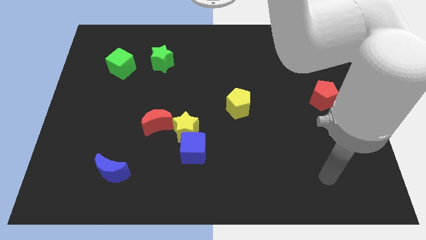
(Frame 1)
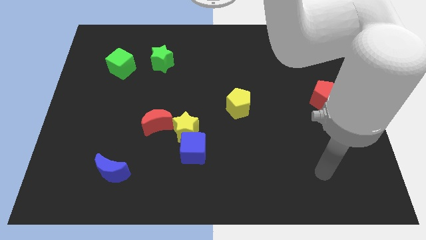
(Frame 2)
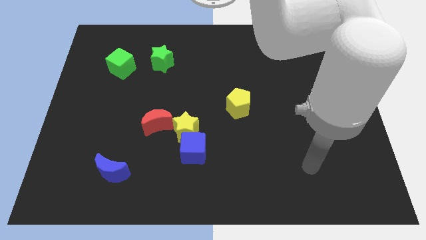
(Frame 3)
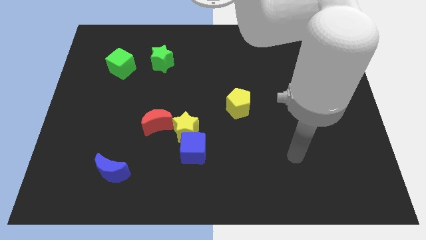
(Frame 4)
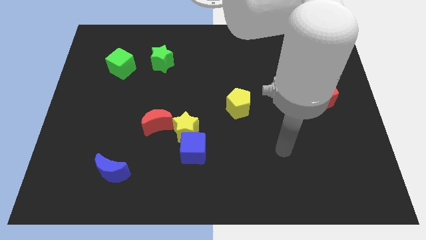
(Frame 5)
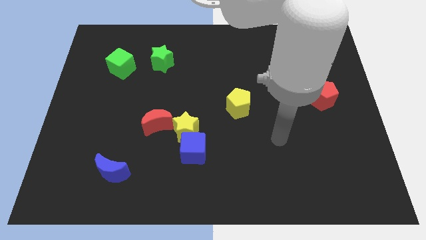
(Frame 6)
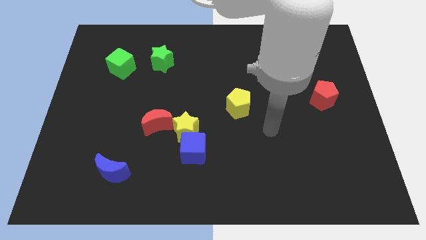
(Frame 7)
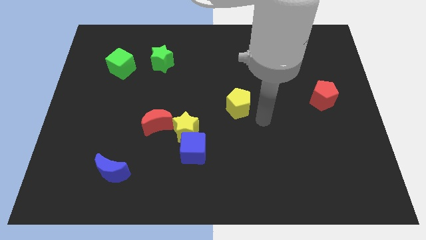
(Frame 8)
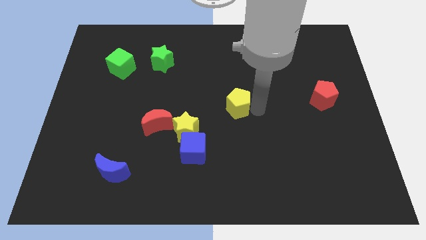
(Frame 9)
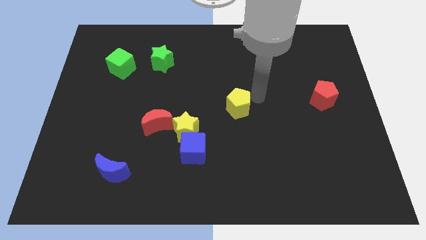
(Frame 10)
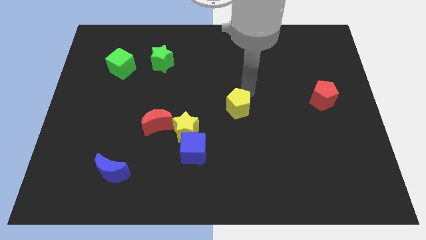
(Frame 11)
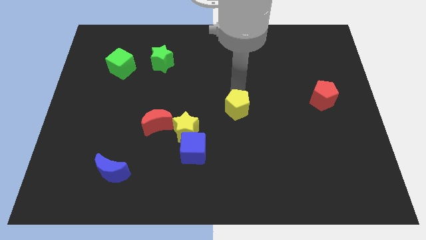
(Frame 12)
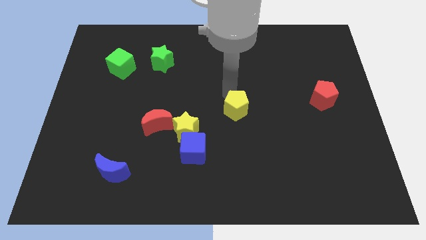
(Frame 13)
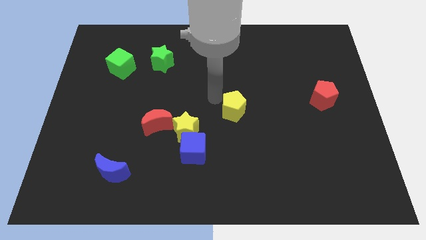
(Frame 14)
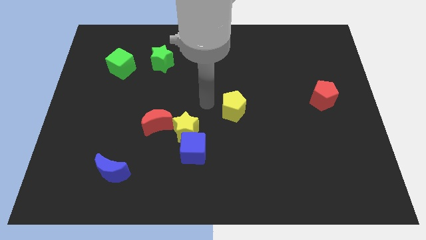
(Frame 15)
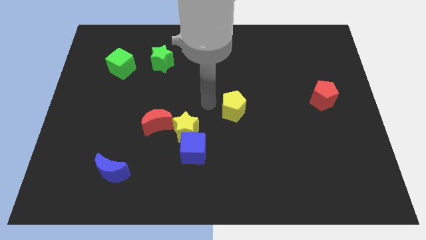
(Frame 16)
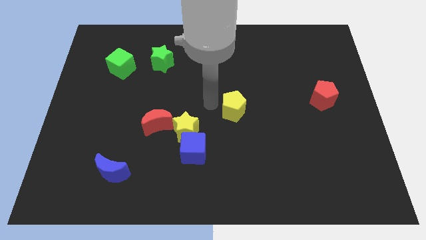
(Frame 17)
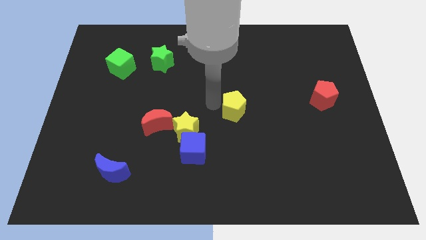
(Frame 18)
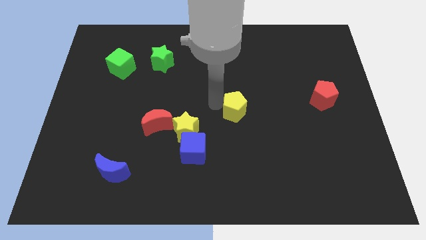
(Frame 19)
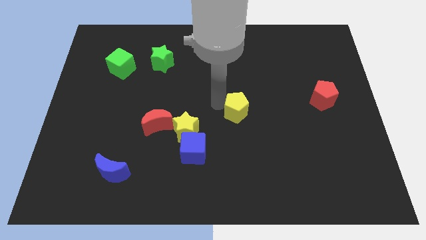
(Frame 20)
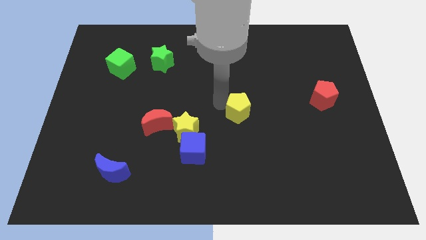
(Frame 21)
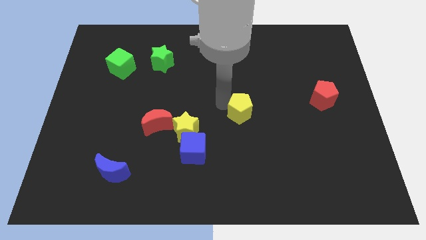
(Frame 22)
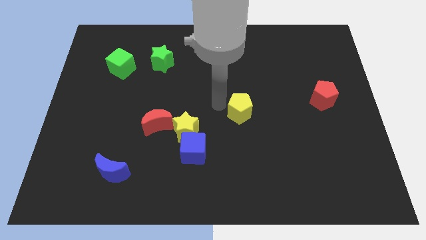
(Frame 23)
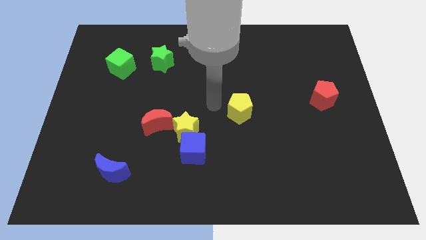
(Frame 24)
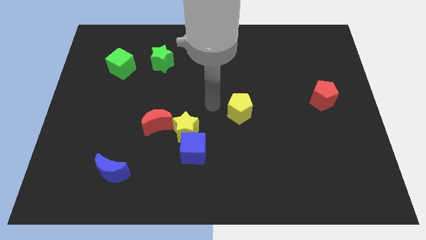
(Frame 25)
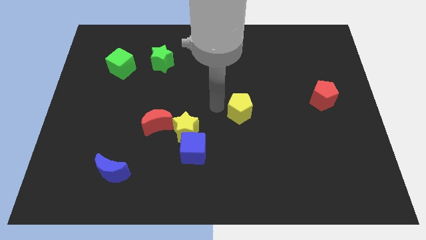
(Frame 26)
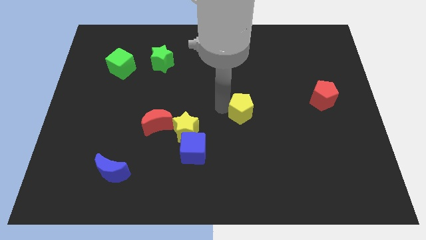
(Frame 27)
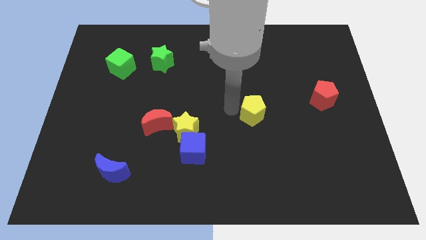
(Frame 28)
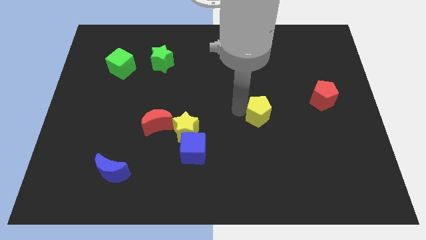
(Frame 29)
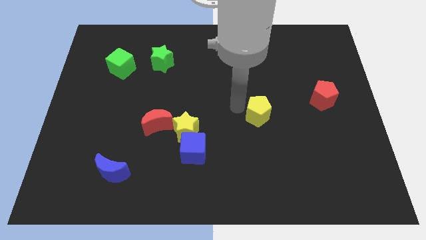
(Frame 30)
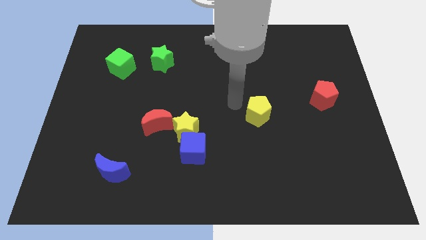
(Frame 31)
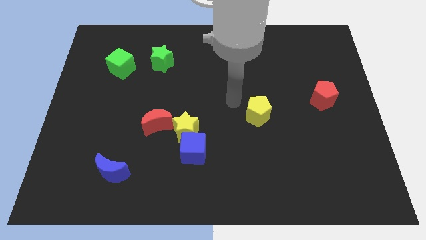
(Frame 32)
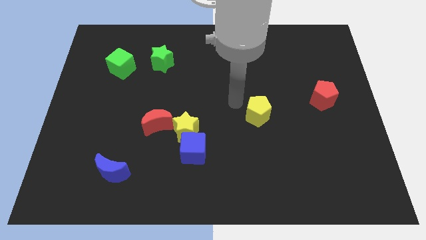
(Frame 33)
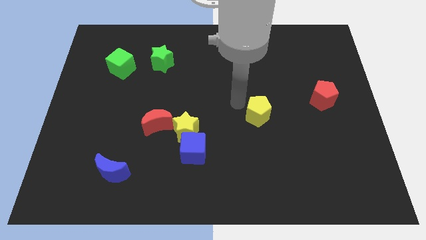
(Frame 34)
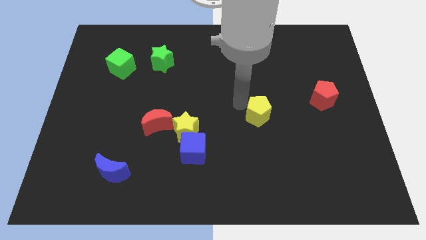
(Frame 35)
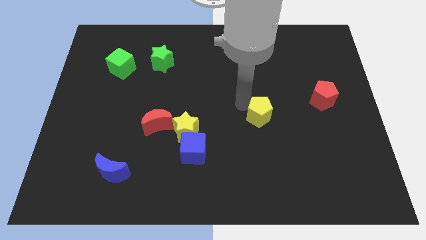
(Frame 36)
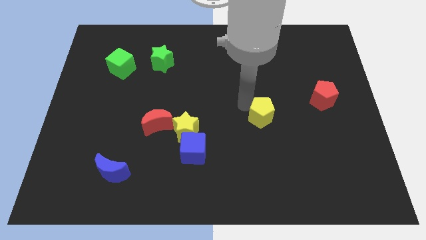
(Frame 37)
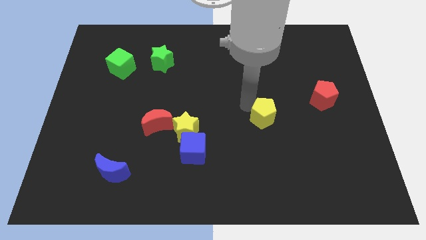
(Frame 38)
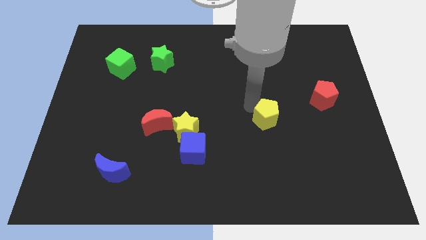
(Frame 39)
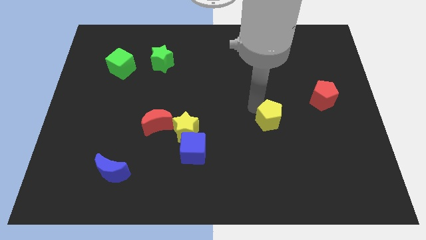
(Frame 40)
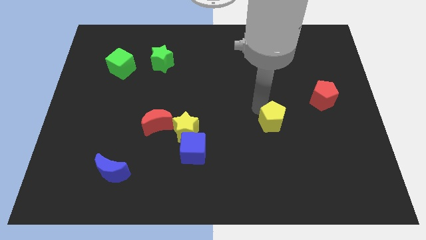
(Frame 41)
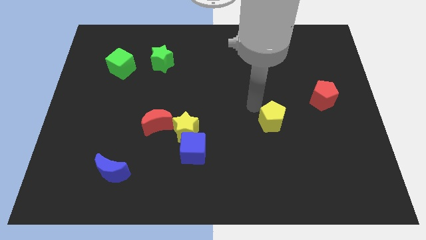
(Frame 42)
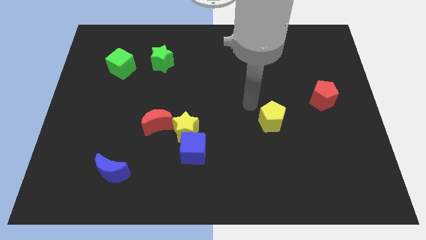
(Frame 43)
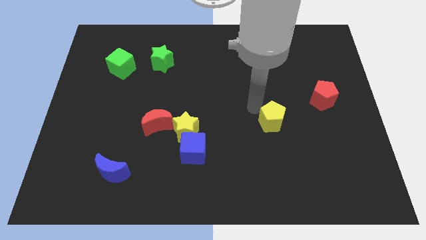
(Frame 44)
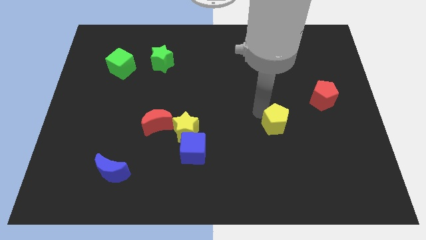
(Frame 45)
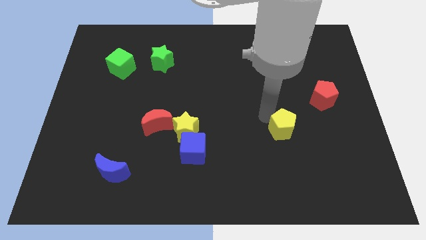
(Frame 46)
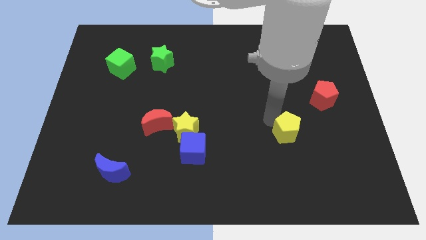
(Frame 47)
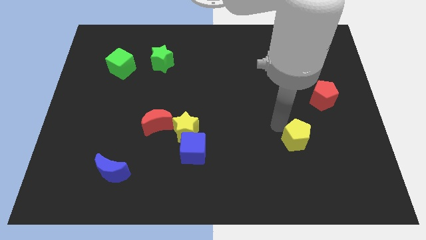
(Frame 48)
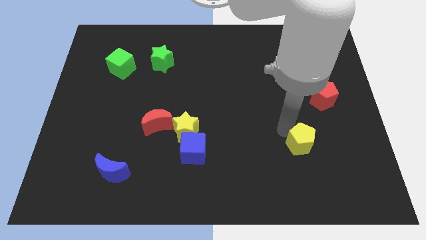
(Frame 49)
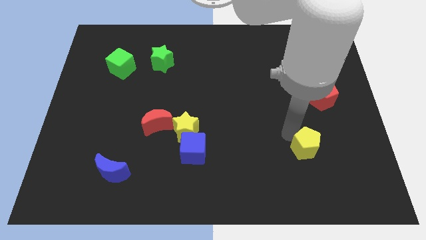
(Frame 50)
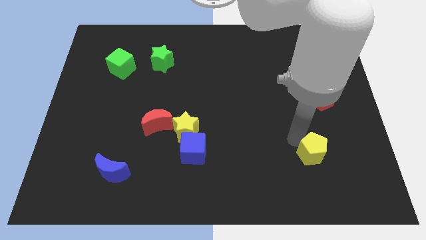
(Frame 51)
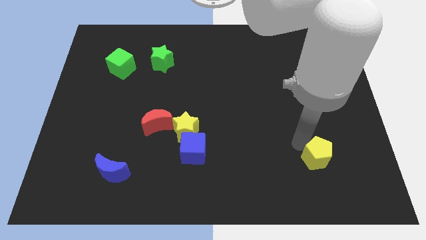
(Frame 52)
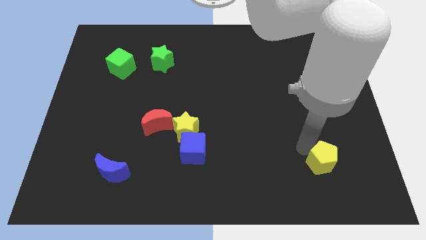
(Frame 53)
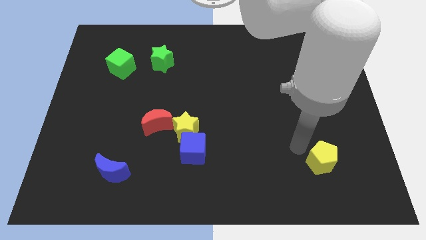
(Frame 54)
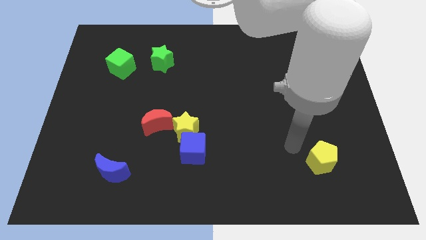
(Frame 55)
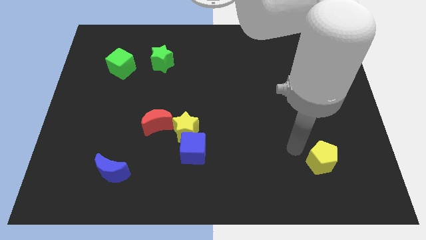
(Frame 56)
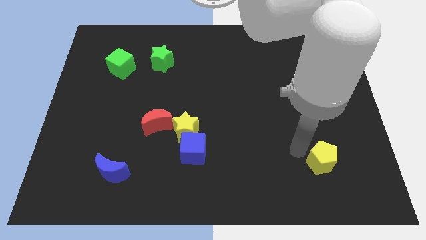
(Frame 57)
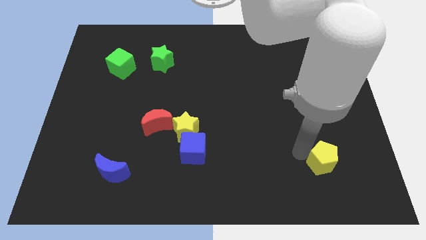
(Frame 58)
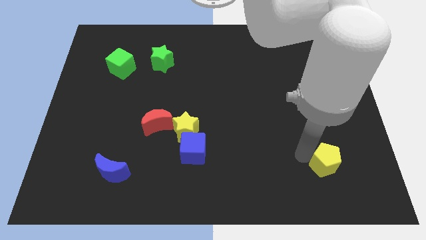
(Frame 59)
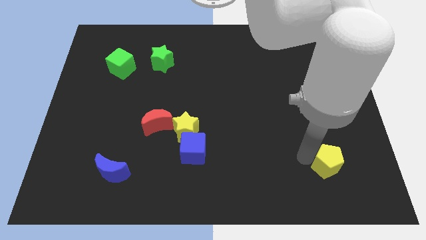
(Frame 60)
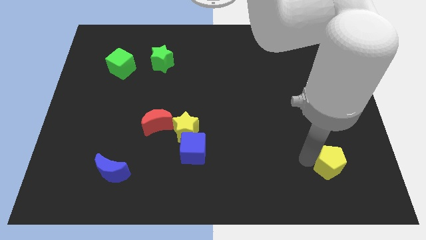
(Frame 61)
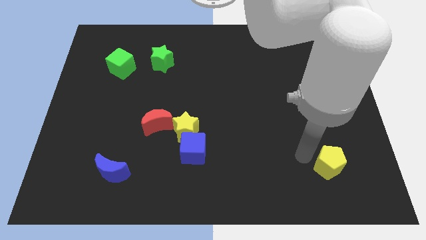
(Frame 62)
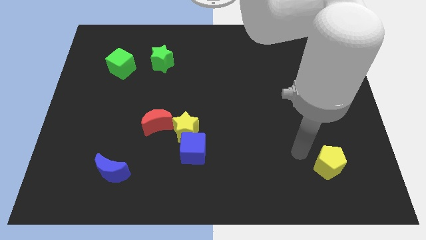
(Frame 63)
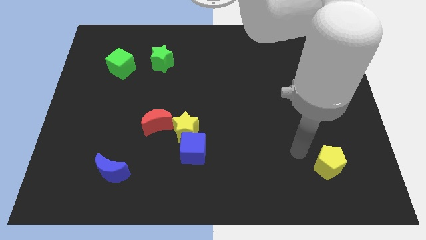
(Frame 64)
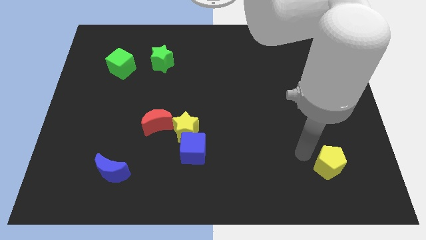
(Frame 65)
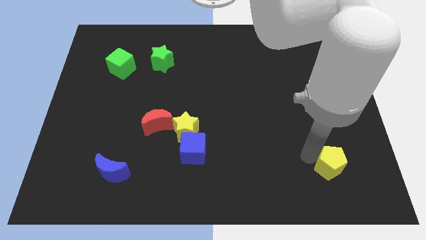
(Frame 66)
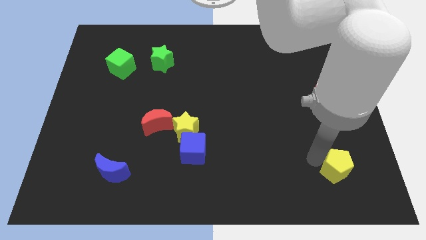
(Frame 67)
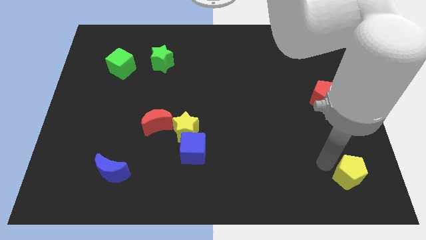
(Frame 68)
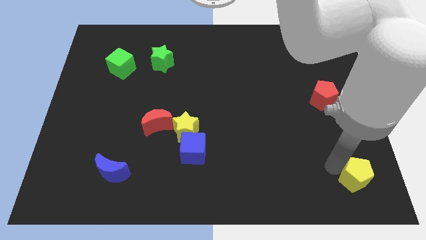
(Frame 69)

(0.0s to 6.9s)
slide the yellow pentagon to the bottom right corner
